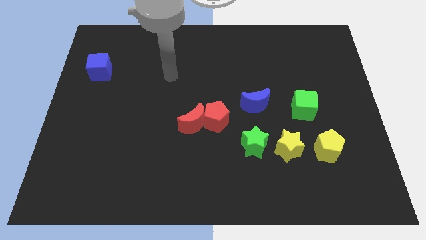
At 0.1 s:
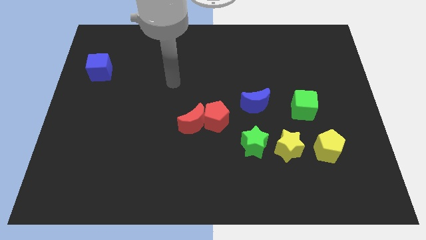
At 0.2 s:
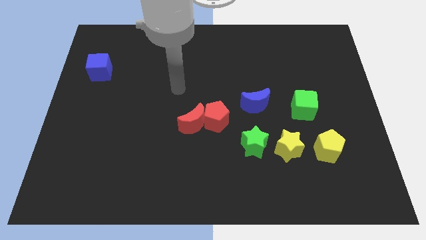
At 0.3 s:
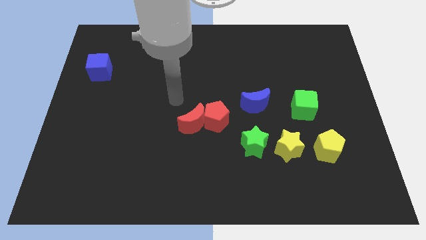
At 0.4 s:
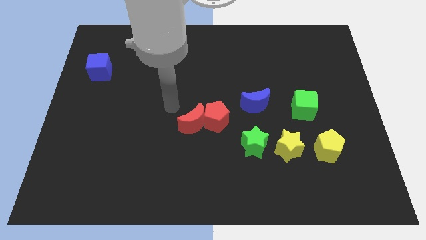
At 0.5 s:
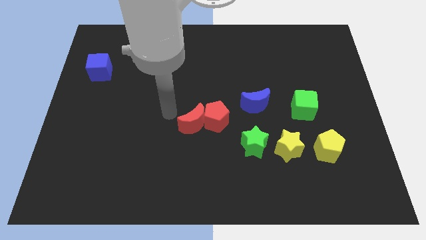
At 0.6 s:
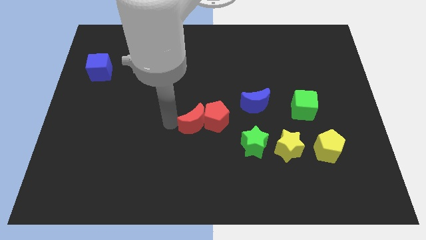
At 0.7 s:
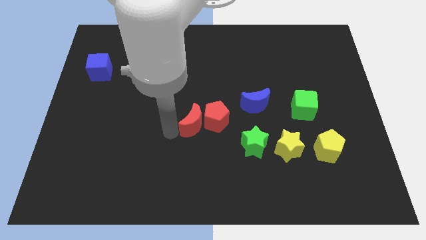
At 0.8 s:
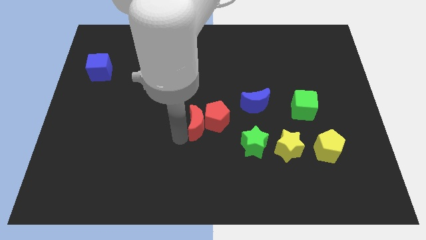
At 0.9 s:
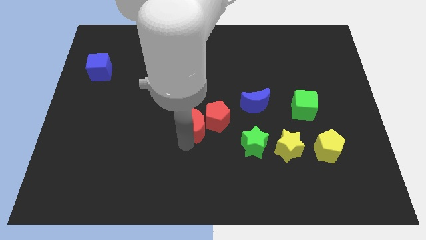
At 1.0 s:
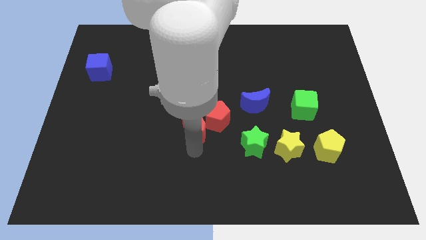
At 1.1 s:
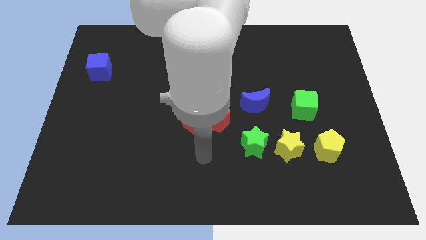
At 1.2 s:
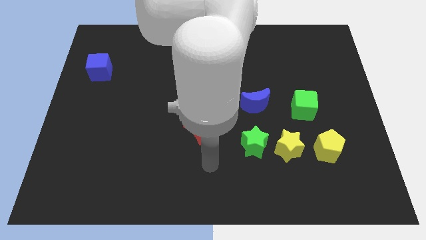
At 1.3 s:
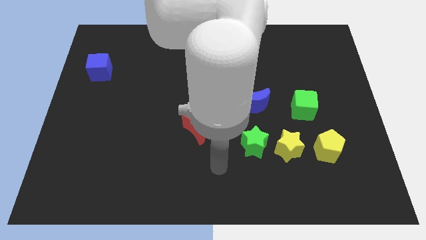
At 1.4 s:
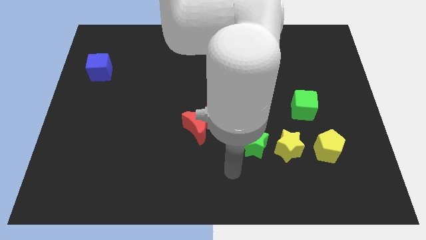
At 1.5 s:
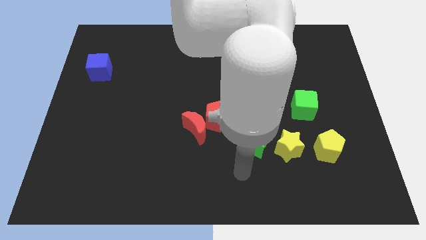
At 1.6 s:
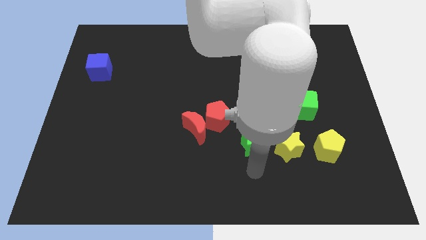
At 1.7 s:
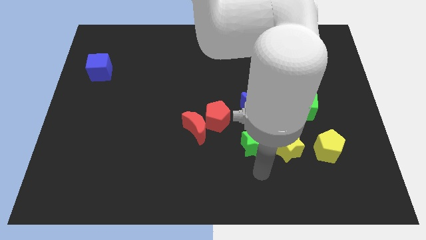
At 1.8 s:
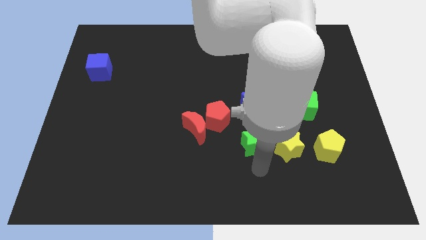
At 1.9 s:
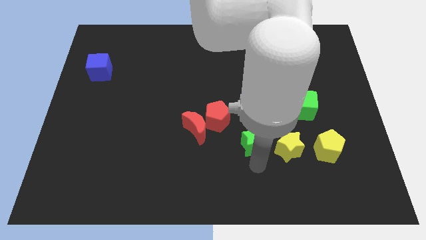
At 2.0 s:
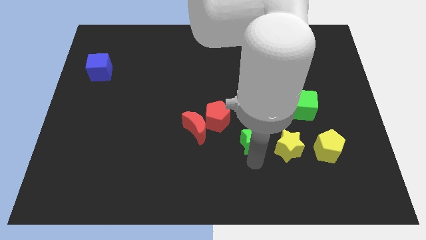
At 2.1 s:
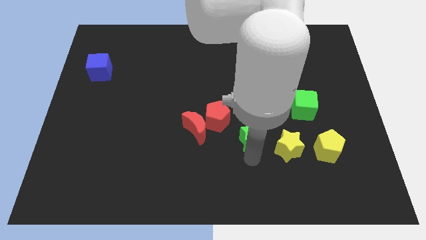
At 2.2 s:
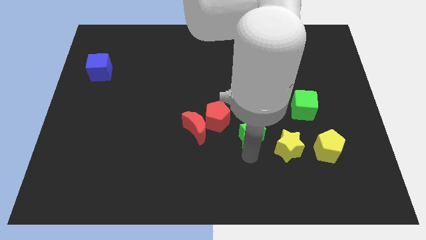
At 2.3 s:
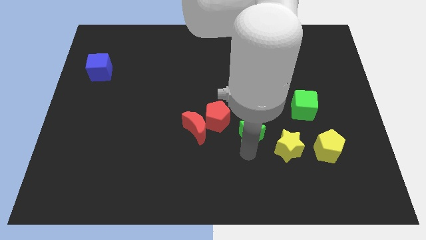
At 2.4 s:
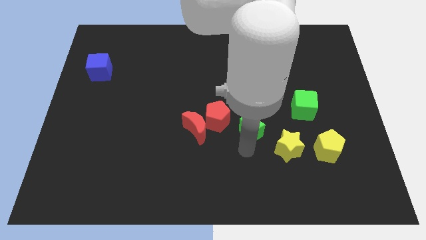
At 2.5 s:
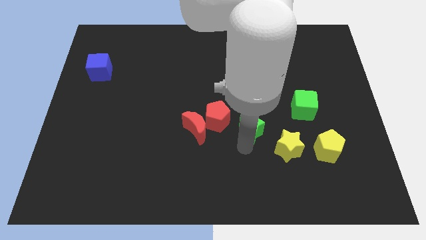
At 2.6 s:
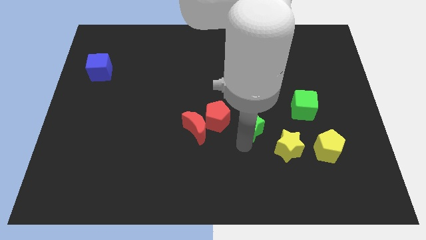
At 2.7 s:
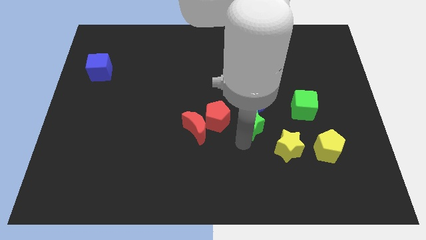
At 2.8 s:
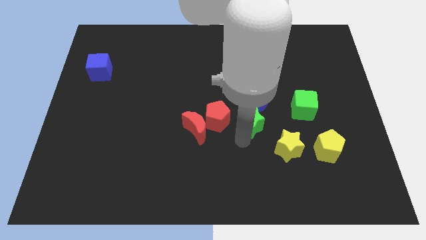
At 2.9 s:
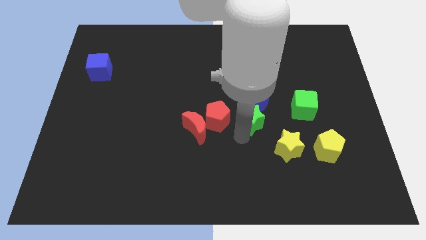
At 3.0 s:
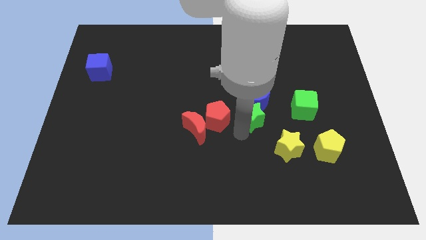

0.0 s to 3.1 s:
push the green star upwards a little bit

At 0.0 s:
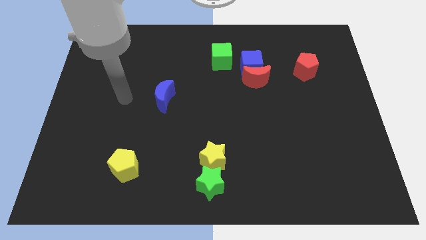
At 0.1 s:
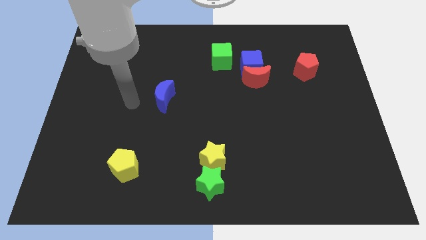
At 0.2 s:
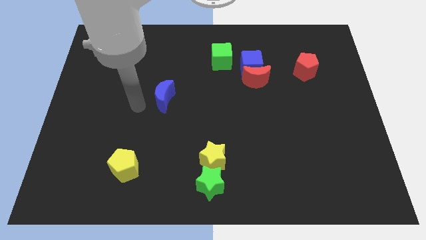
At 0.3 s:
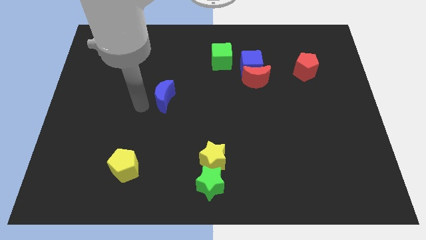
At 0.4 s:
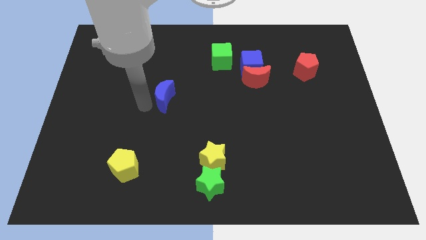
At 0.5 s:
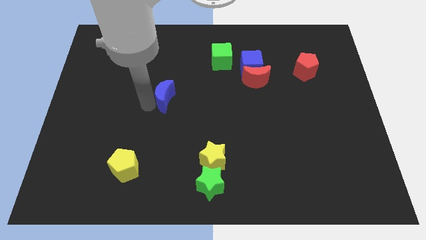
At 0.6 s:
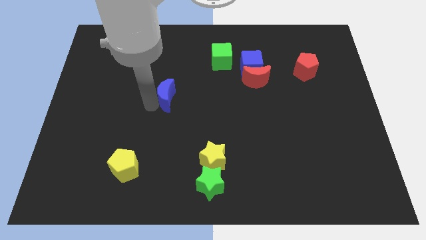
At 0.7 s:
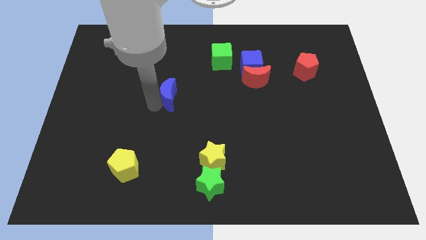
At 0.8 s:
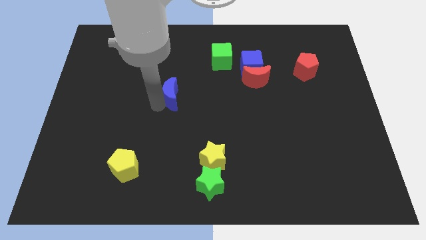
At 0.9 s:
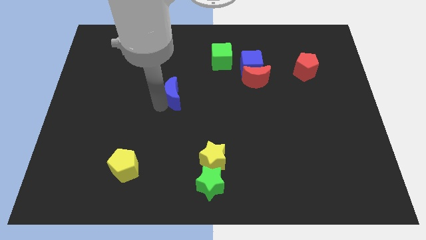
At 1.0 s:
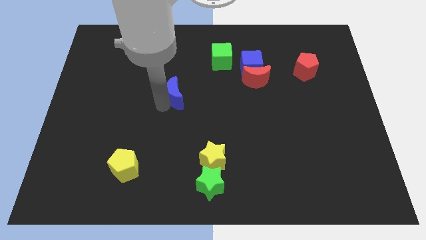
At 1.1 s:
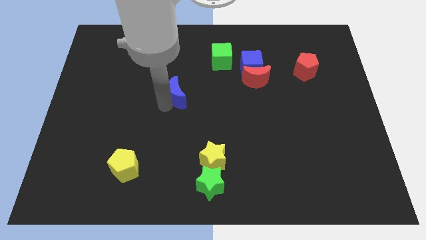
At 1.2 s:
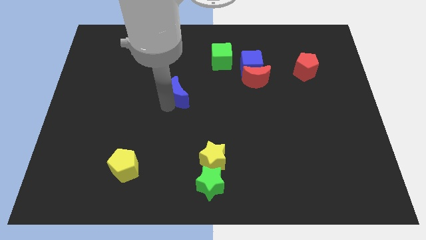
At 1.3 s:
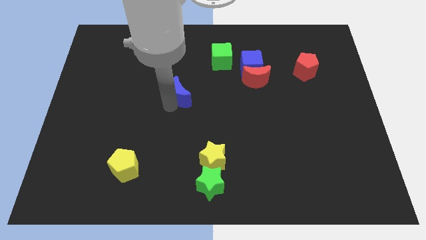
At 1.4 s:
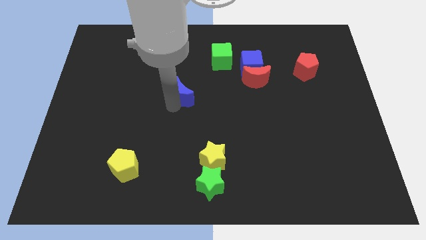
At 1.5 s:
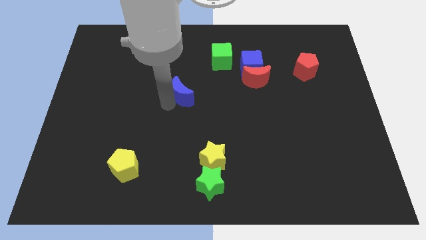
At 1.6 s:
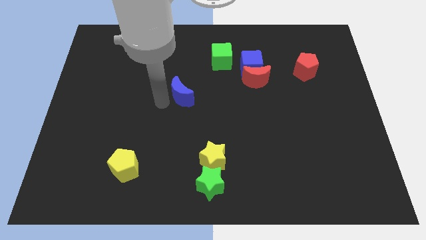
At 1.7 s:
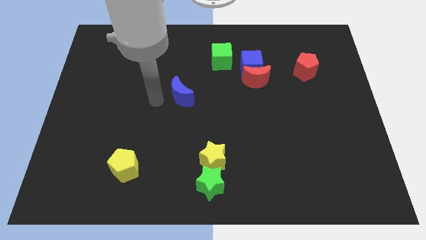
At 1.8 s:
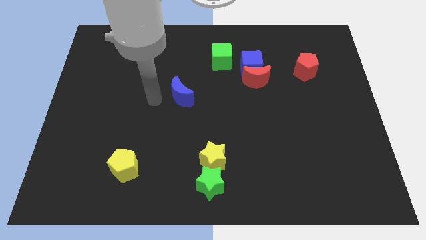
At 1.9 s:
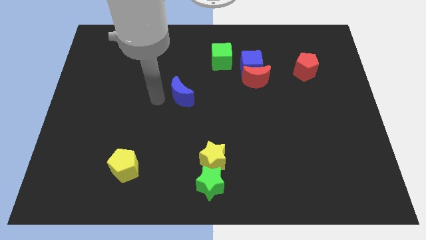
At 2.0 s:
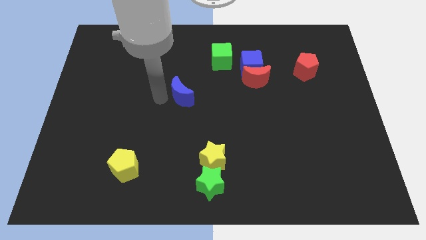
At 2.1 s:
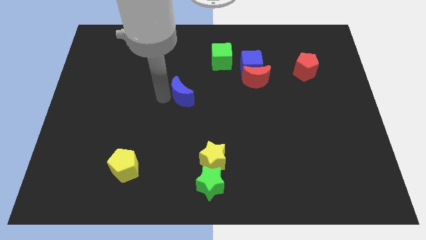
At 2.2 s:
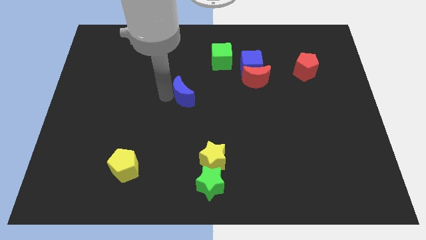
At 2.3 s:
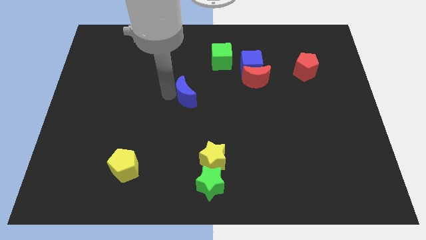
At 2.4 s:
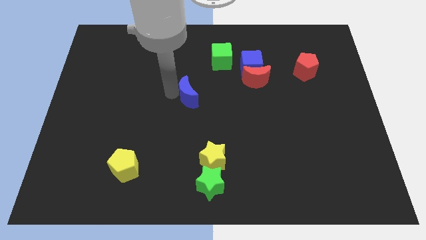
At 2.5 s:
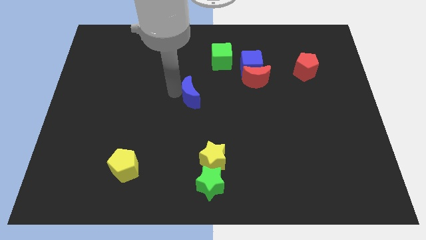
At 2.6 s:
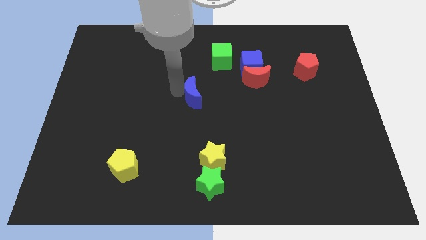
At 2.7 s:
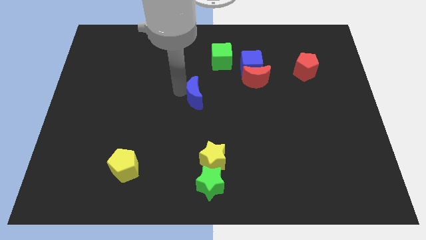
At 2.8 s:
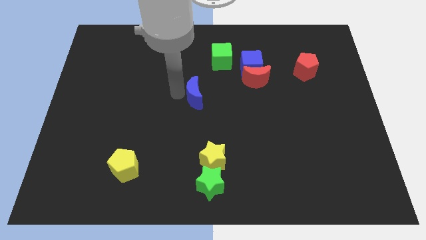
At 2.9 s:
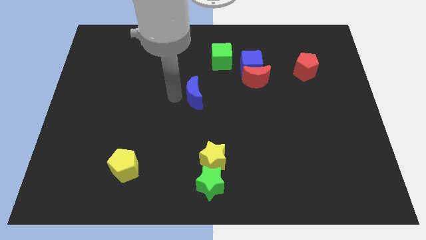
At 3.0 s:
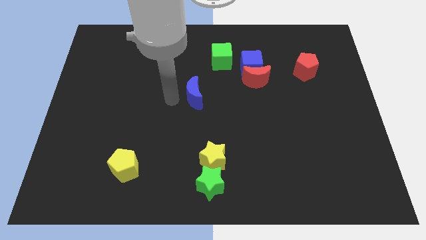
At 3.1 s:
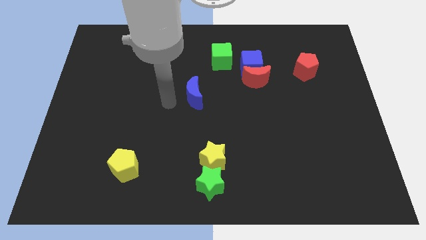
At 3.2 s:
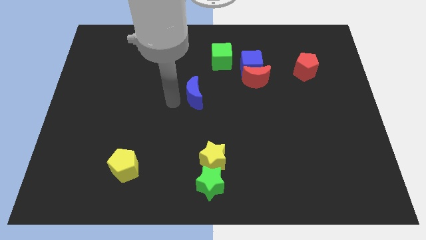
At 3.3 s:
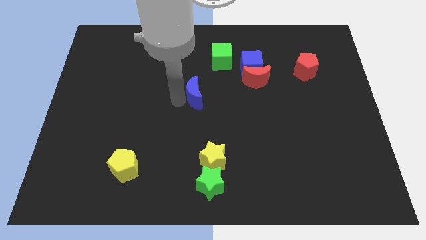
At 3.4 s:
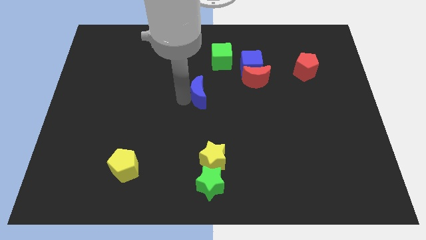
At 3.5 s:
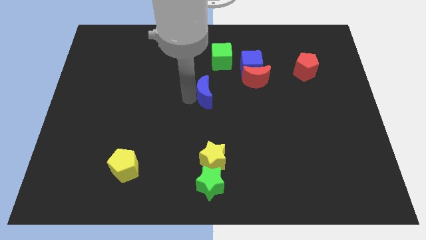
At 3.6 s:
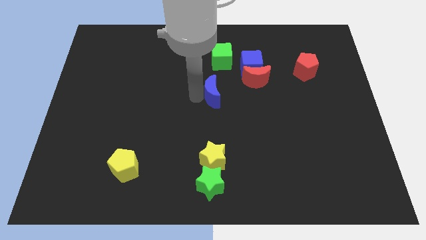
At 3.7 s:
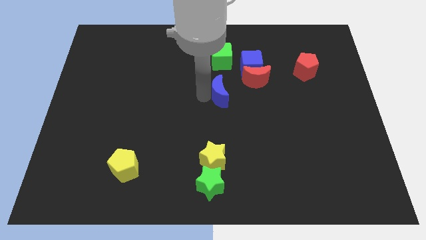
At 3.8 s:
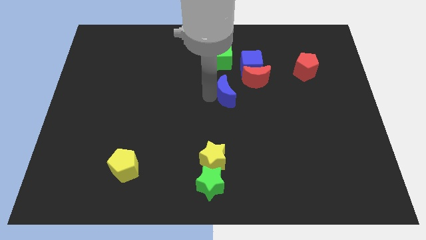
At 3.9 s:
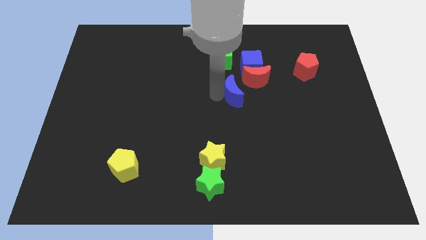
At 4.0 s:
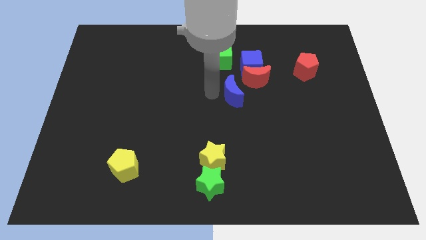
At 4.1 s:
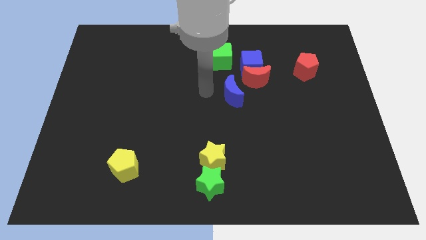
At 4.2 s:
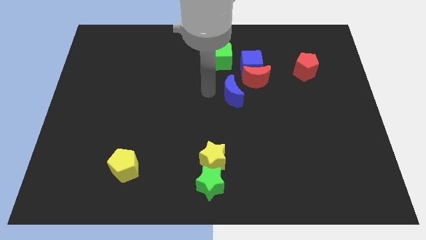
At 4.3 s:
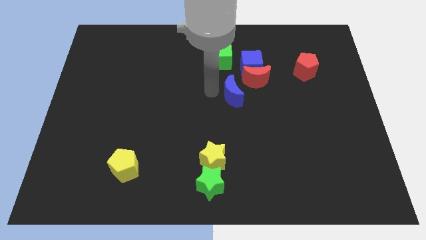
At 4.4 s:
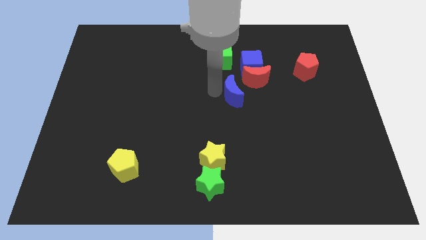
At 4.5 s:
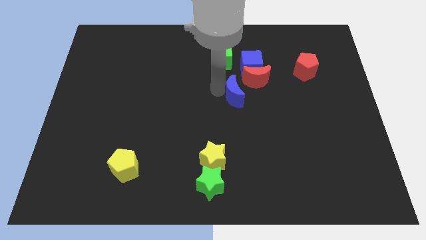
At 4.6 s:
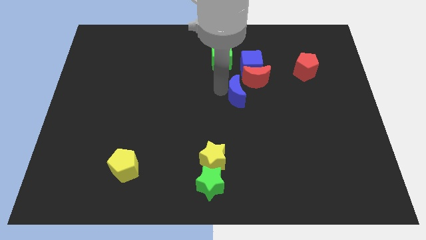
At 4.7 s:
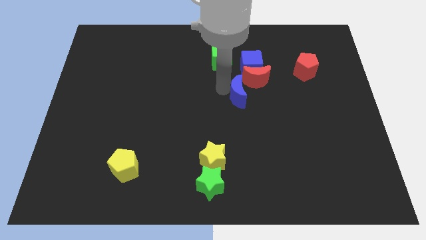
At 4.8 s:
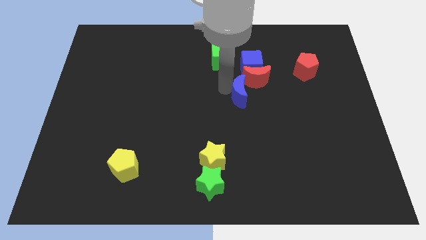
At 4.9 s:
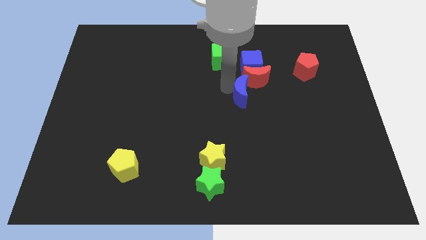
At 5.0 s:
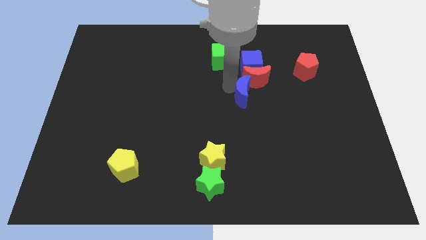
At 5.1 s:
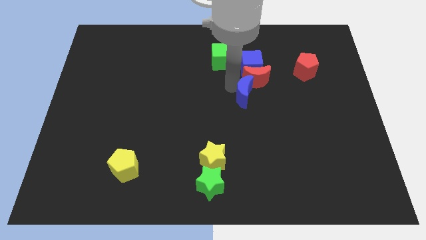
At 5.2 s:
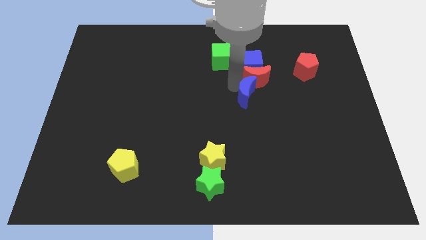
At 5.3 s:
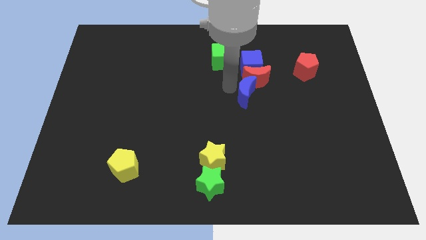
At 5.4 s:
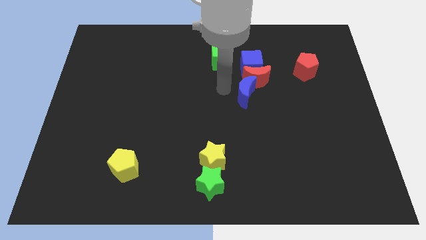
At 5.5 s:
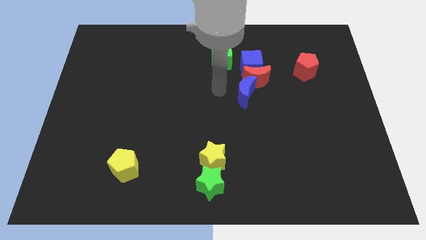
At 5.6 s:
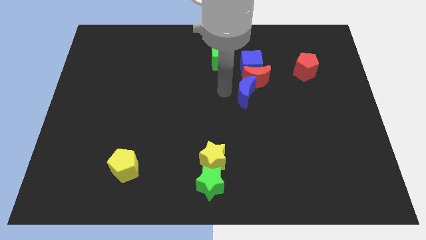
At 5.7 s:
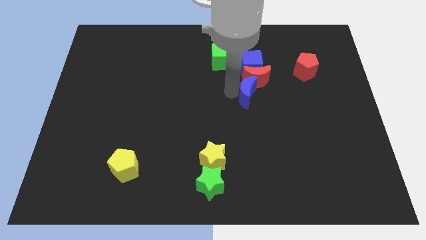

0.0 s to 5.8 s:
push the blue moon right
